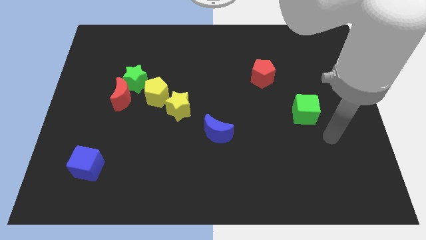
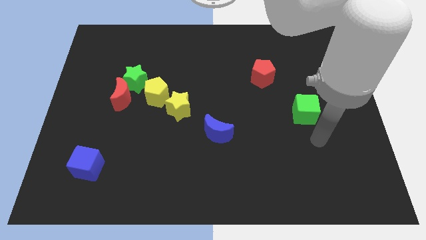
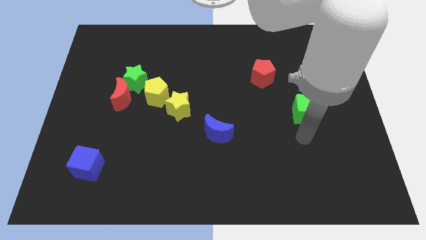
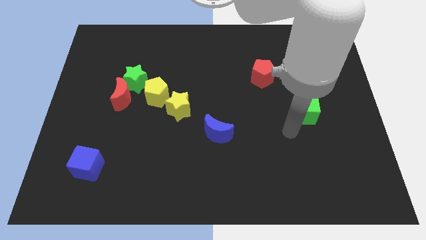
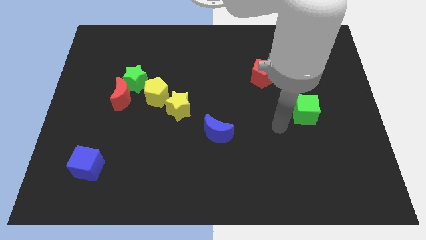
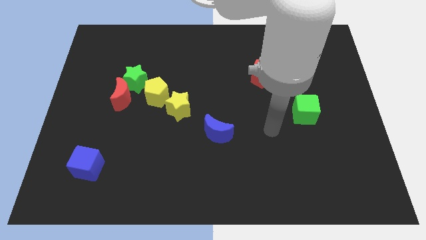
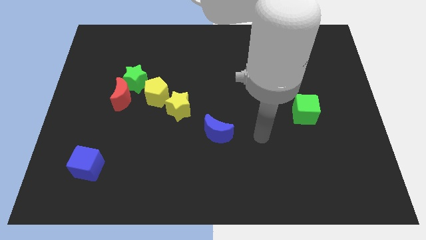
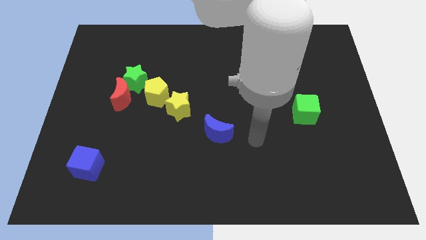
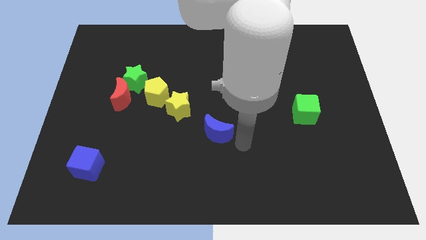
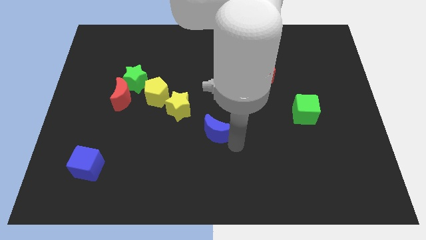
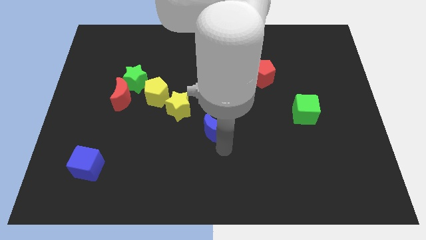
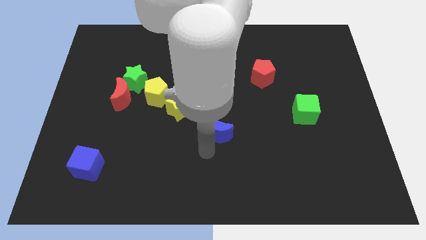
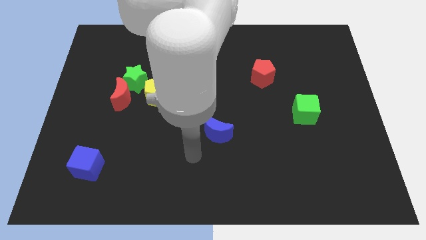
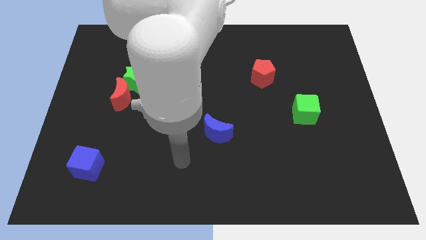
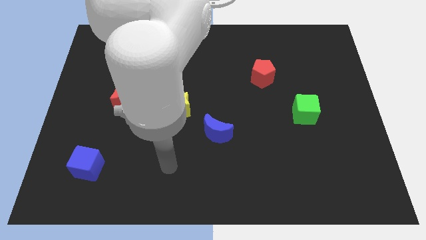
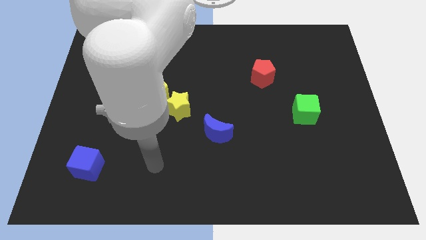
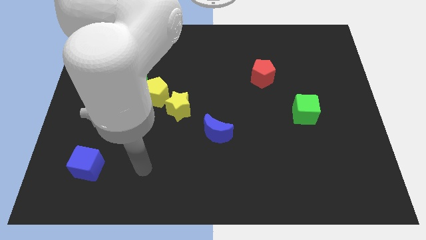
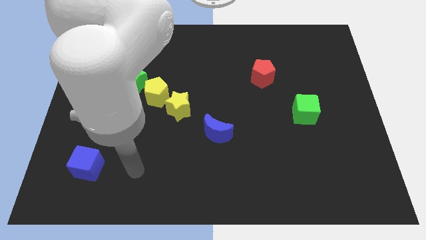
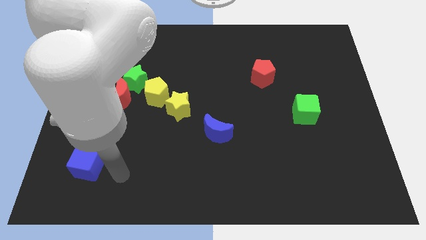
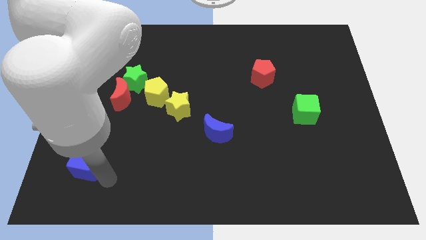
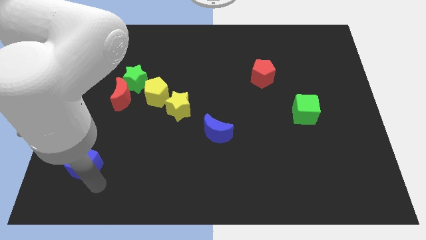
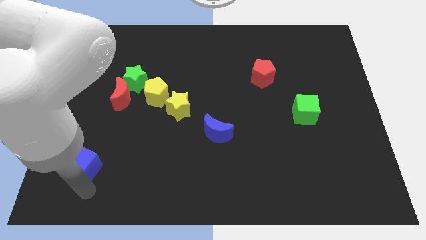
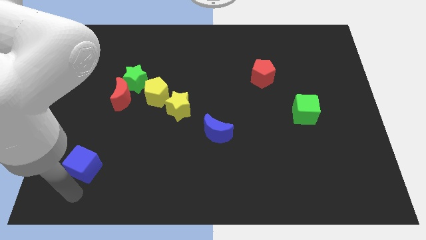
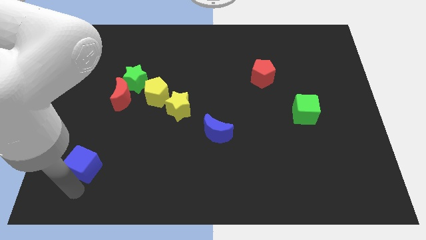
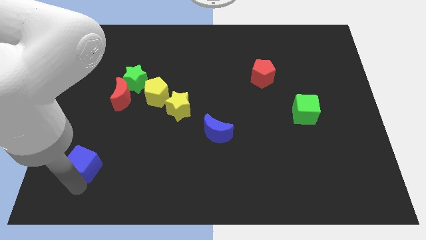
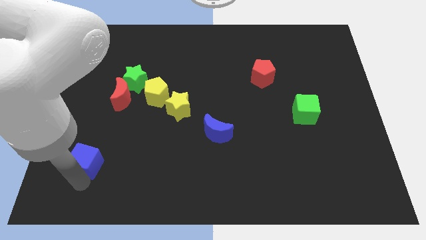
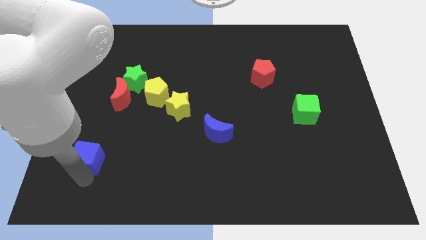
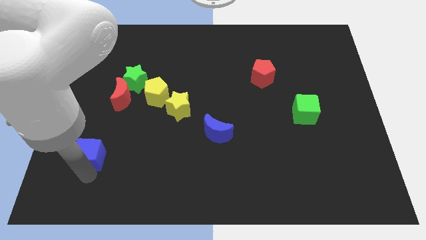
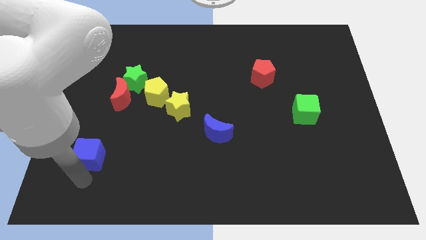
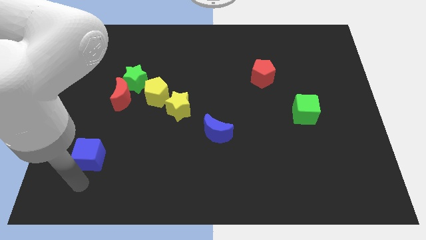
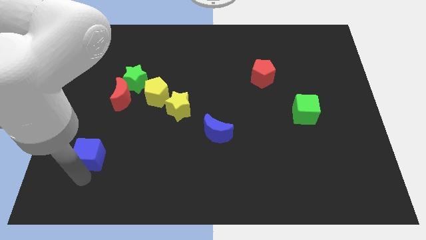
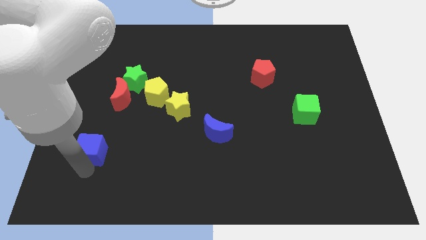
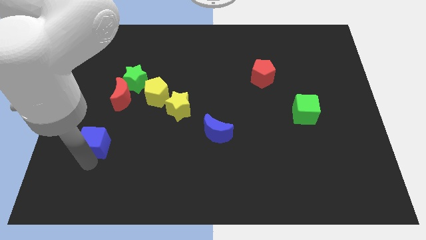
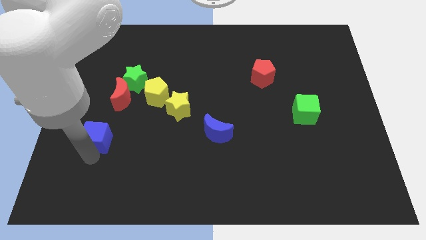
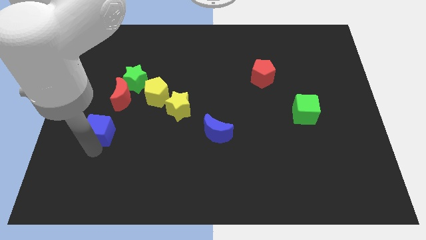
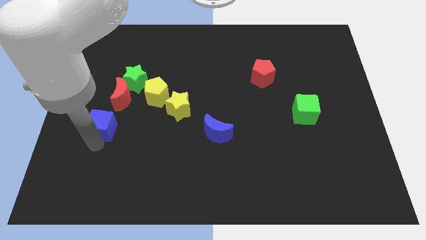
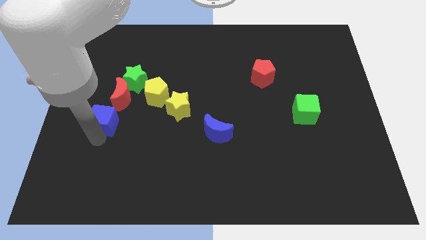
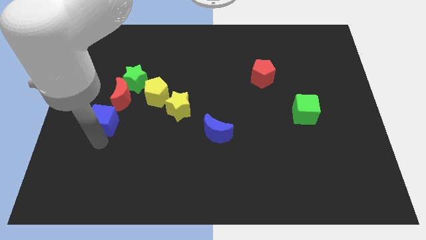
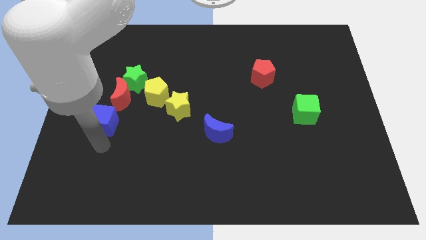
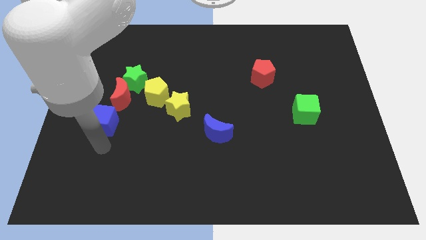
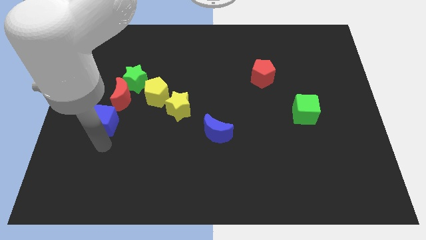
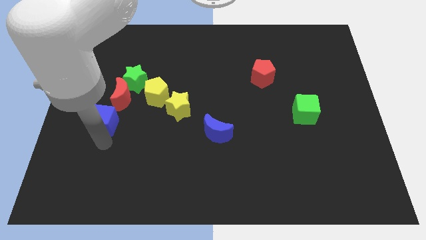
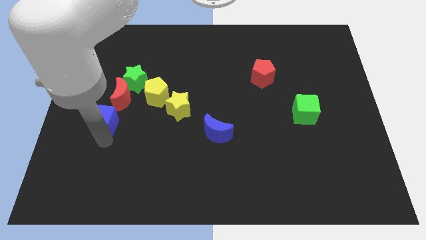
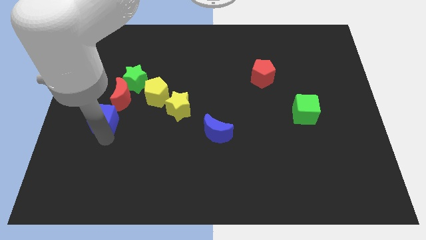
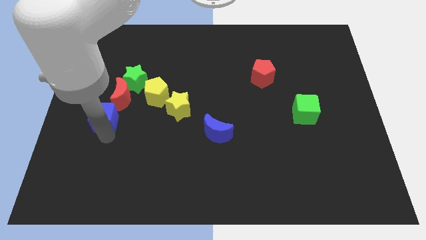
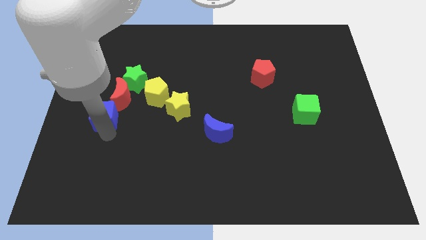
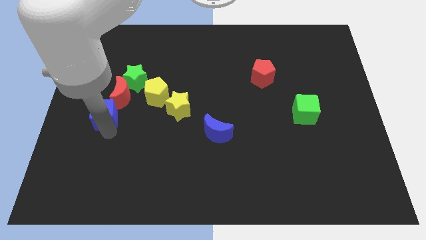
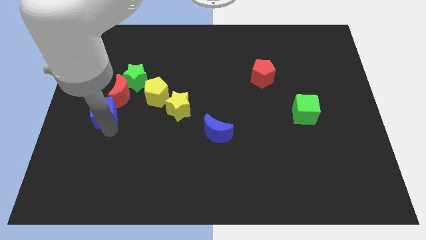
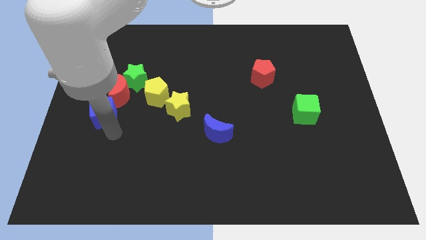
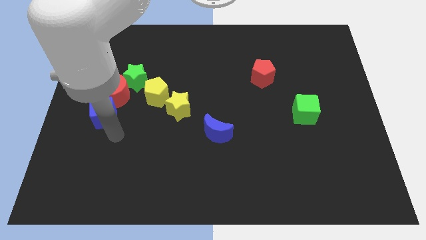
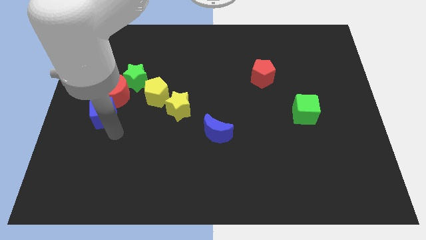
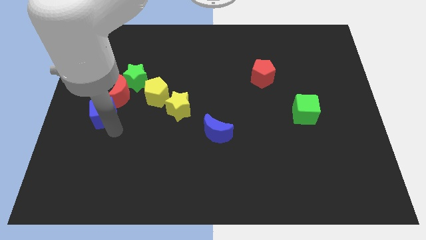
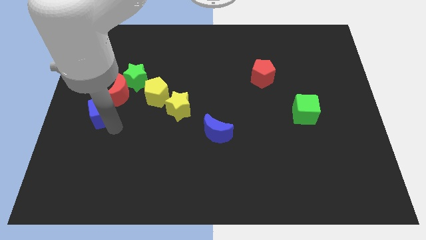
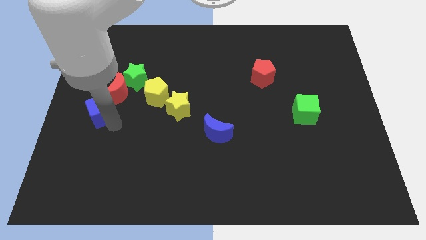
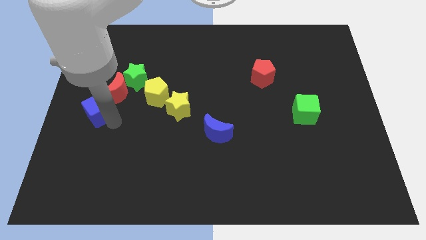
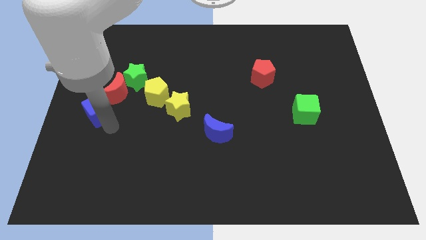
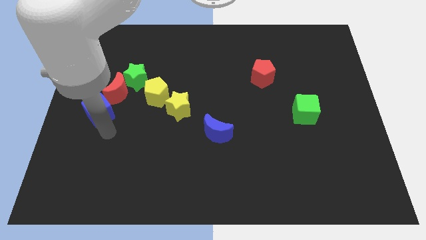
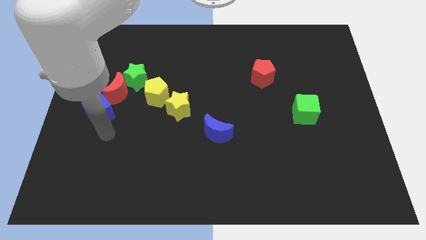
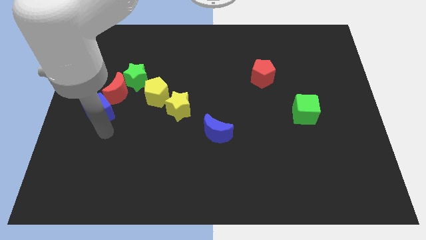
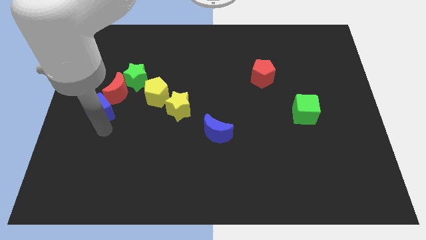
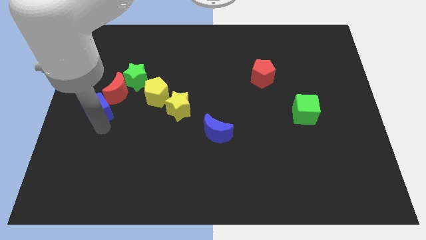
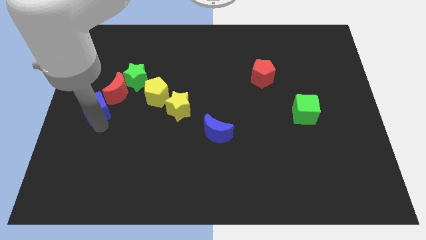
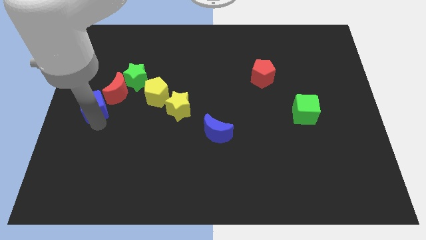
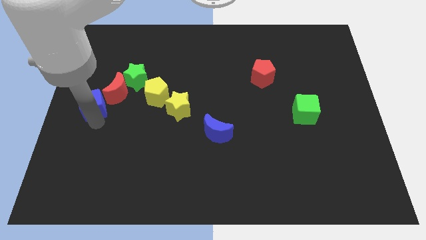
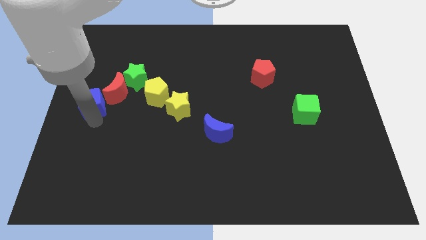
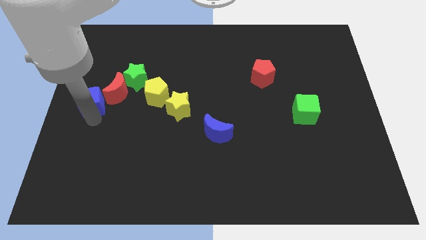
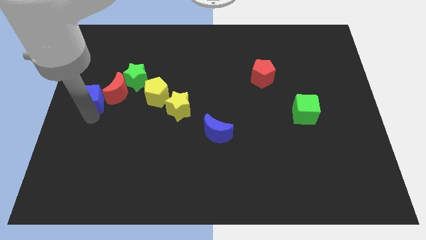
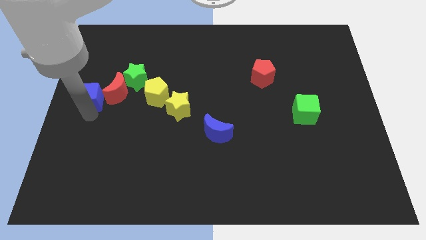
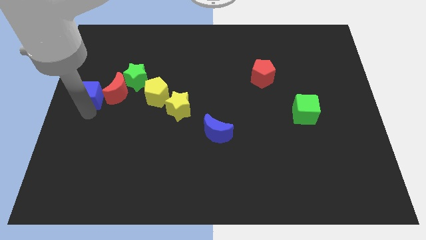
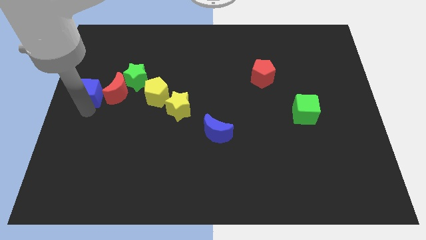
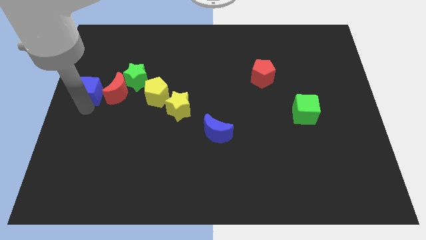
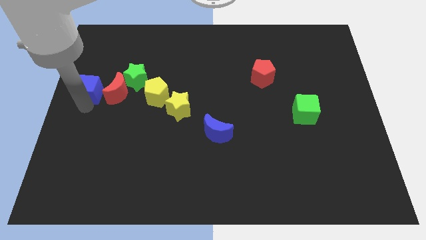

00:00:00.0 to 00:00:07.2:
slide the blue cube upwards

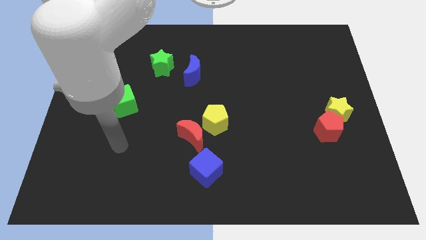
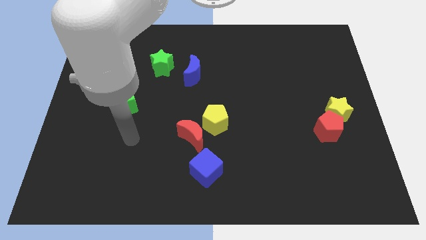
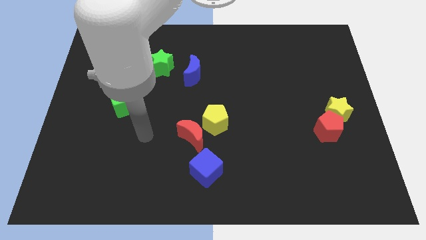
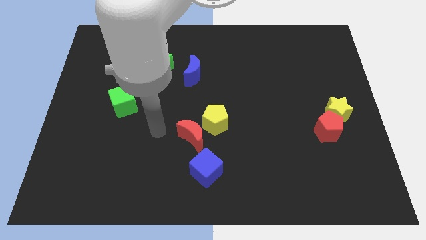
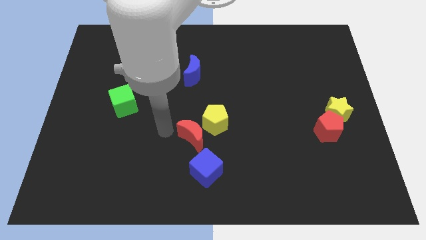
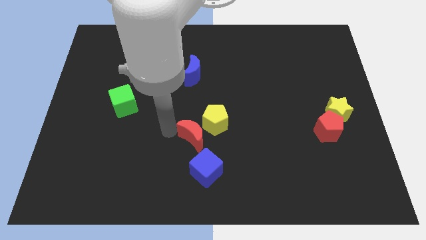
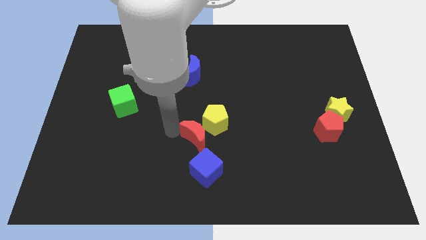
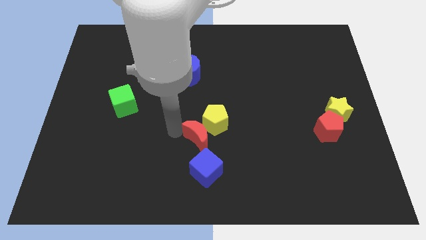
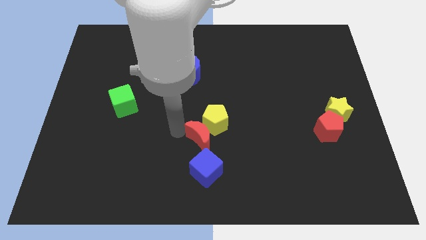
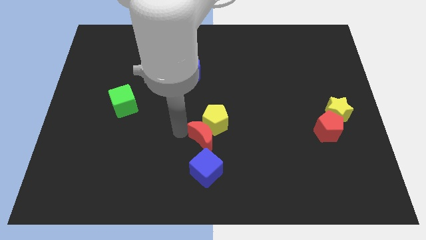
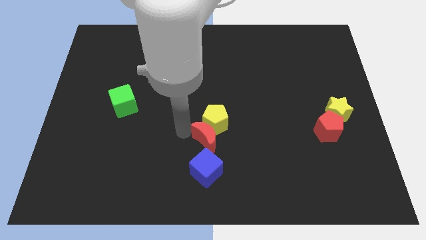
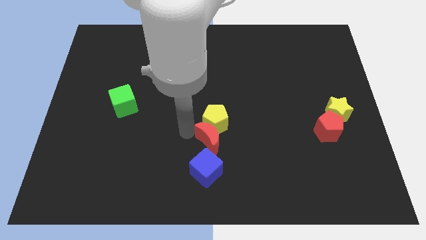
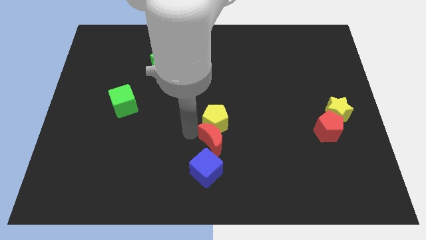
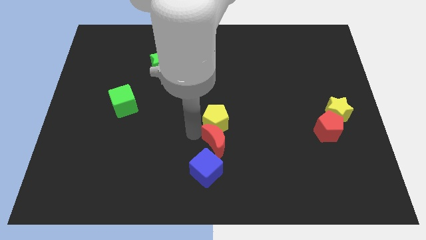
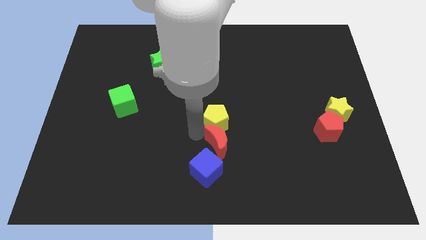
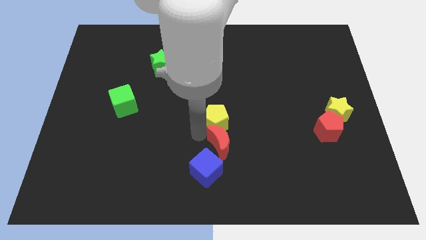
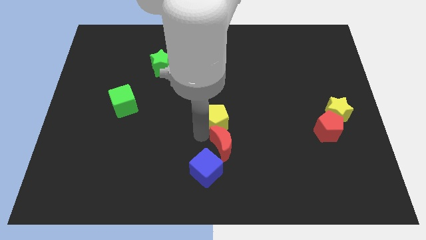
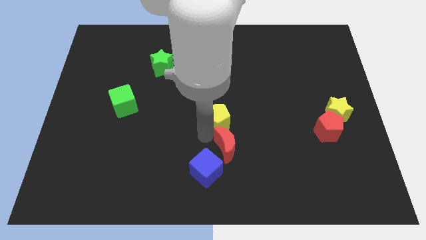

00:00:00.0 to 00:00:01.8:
push the red moon to the right a bit
